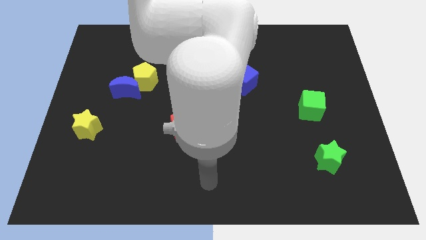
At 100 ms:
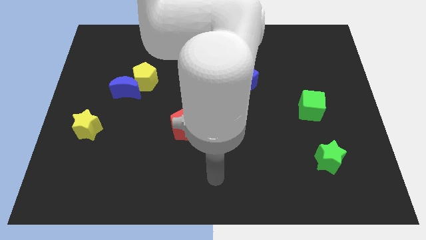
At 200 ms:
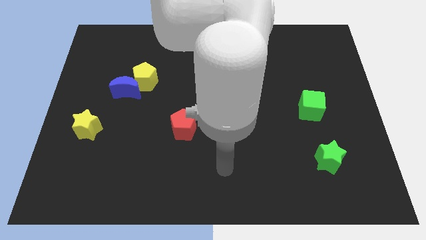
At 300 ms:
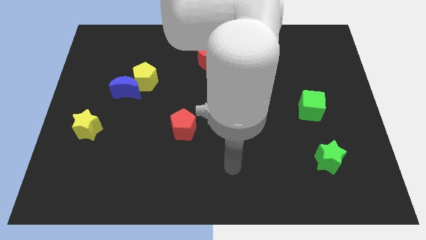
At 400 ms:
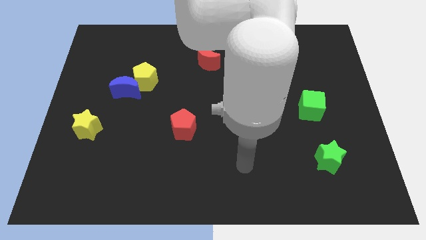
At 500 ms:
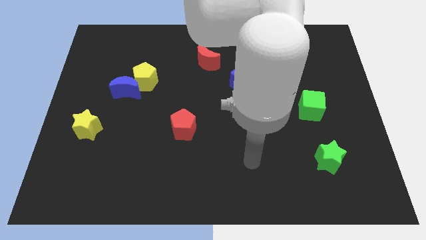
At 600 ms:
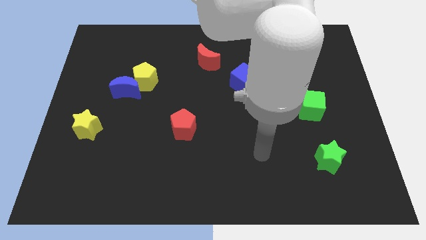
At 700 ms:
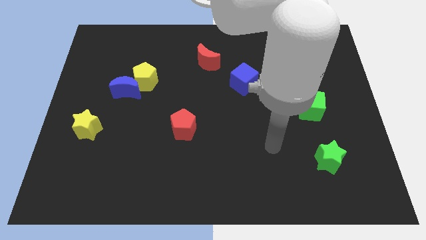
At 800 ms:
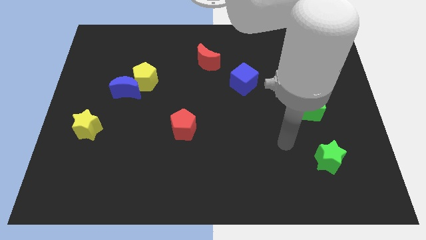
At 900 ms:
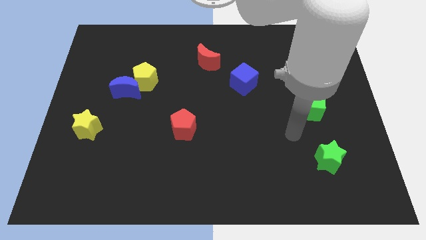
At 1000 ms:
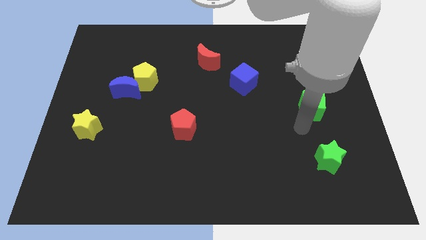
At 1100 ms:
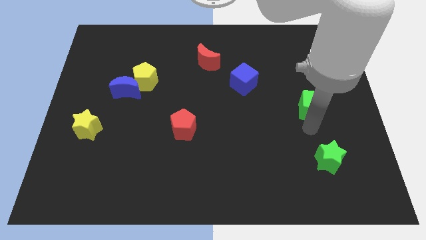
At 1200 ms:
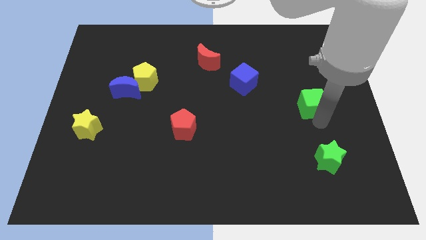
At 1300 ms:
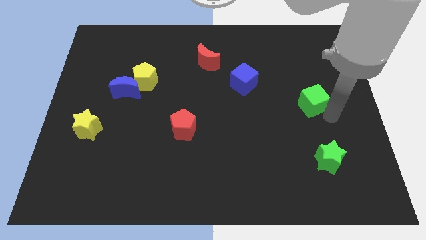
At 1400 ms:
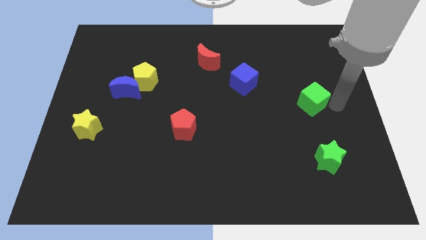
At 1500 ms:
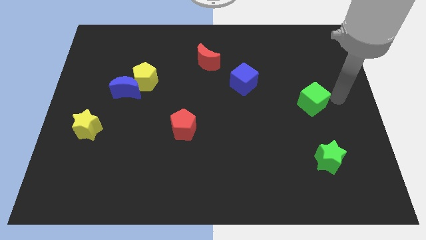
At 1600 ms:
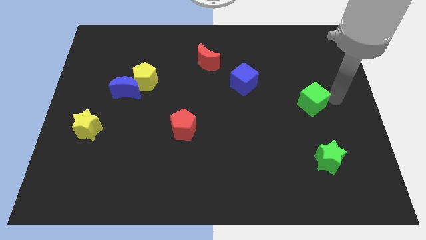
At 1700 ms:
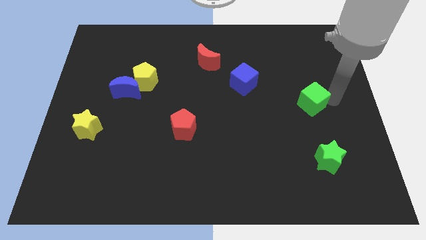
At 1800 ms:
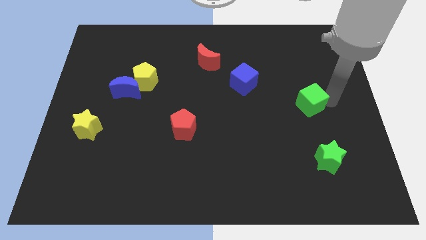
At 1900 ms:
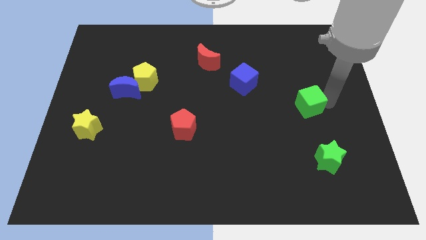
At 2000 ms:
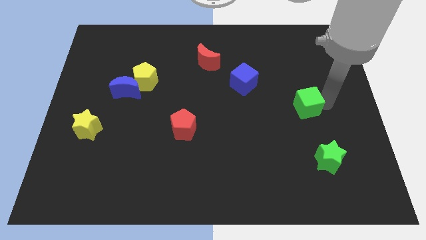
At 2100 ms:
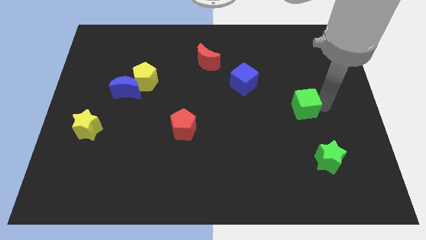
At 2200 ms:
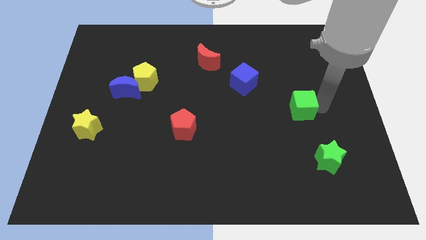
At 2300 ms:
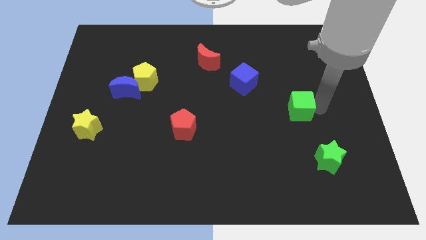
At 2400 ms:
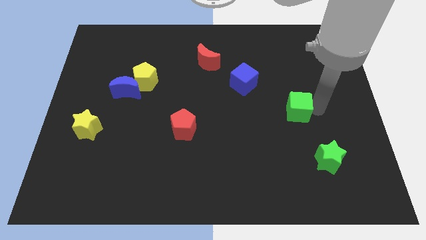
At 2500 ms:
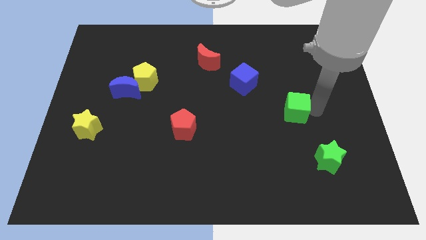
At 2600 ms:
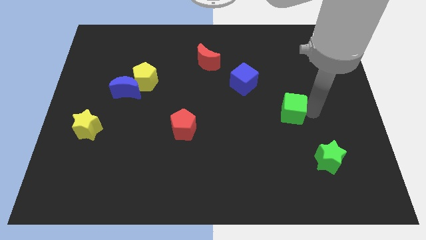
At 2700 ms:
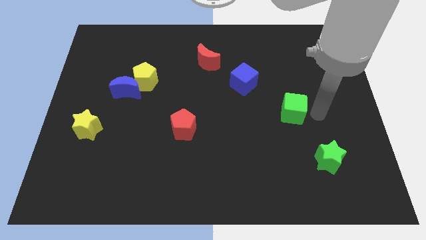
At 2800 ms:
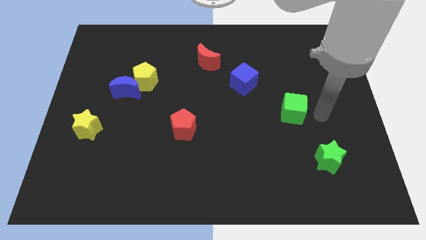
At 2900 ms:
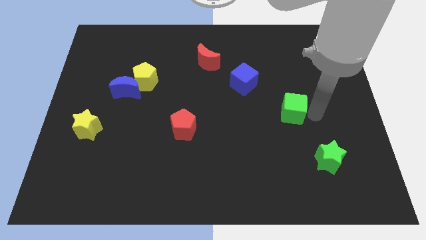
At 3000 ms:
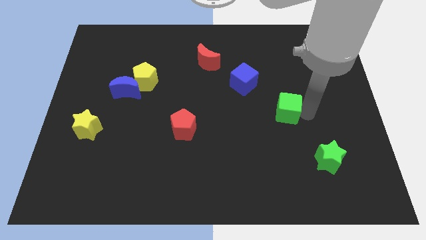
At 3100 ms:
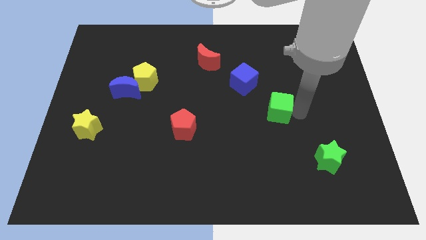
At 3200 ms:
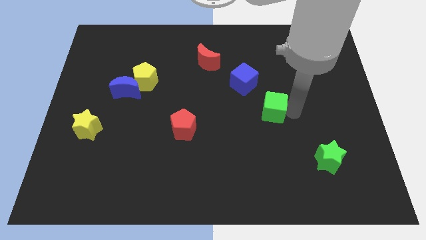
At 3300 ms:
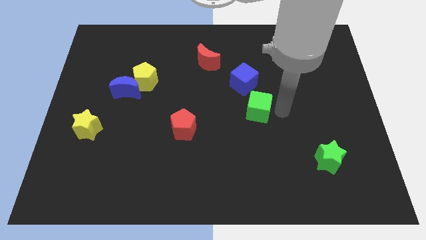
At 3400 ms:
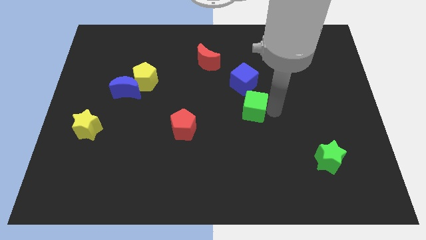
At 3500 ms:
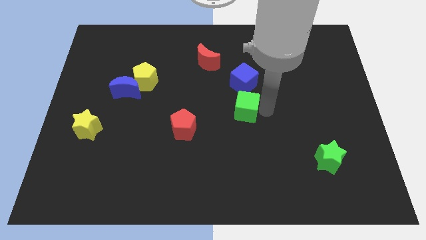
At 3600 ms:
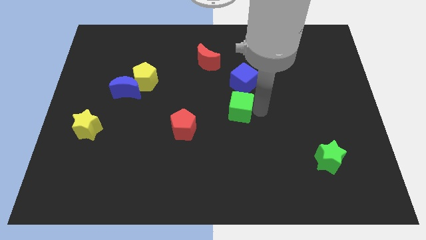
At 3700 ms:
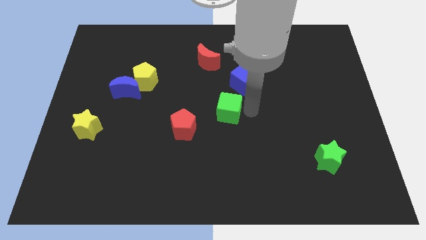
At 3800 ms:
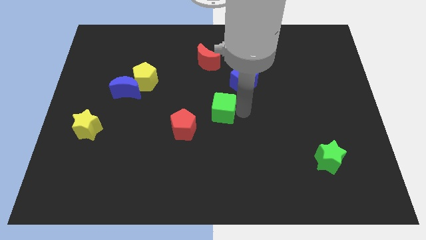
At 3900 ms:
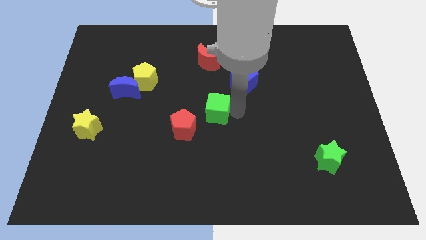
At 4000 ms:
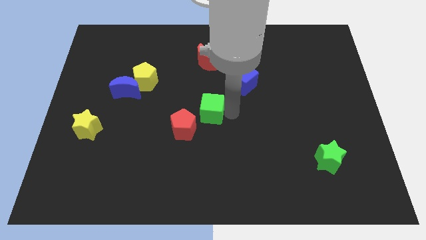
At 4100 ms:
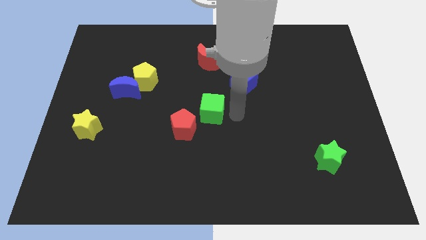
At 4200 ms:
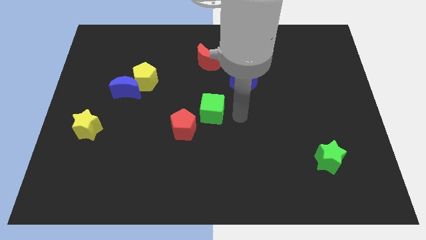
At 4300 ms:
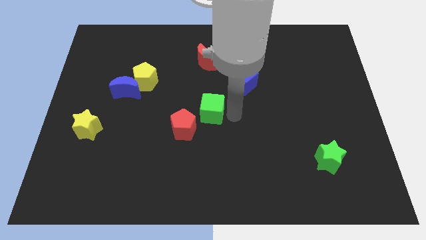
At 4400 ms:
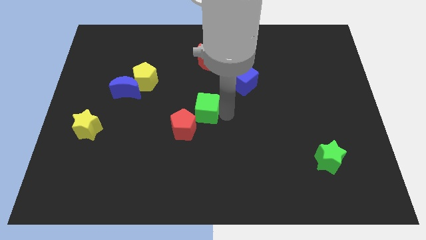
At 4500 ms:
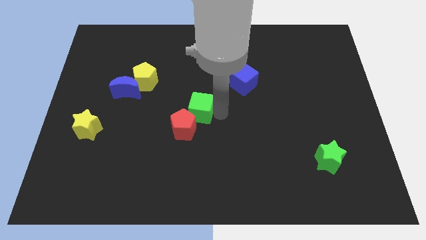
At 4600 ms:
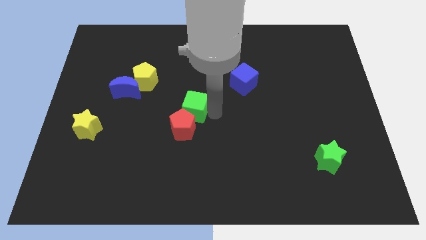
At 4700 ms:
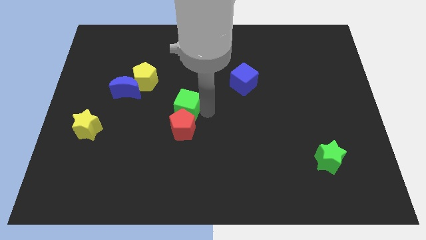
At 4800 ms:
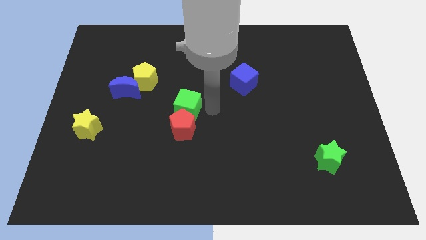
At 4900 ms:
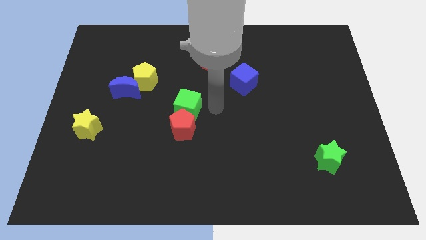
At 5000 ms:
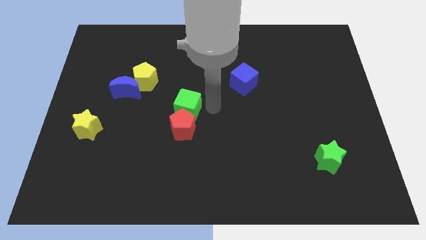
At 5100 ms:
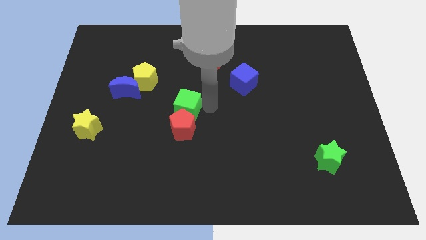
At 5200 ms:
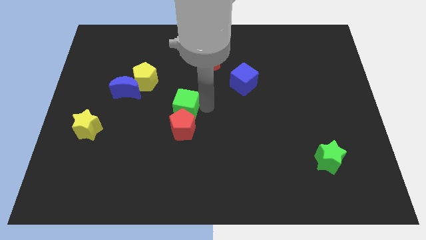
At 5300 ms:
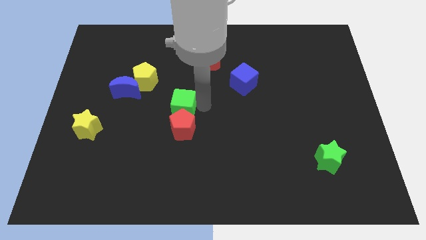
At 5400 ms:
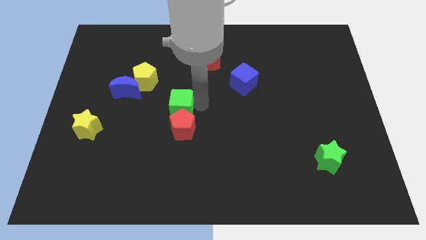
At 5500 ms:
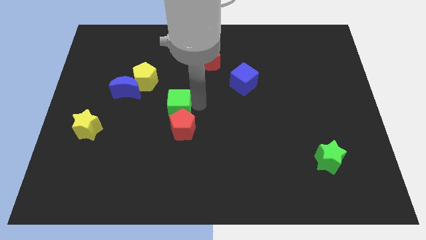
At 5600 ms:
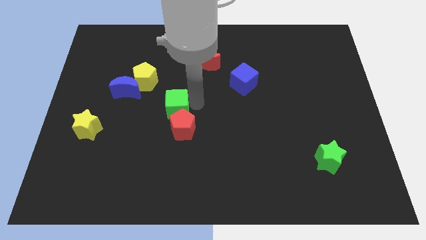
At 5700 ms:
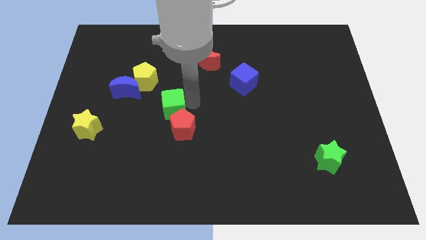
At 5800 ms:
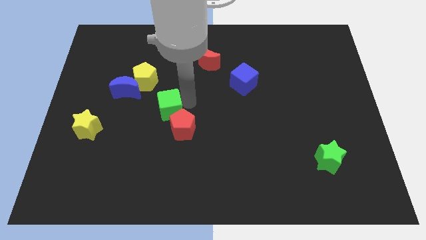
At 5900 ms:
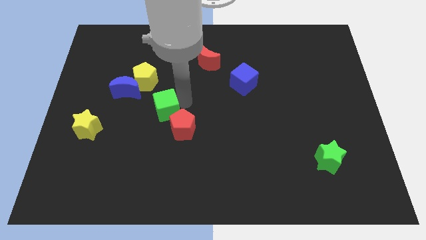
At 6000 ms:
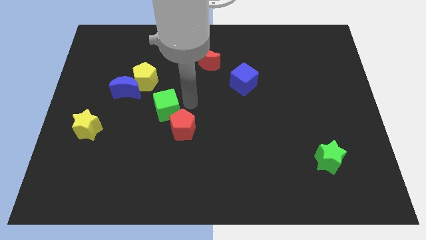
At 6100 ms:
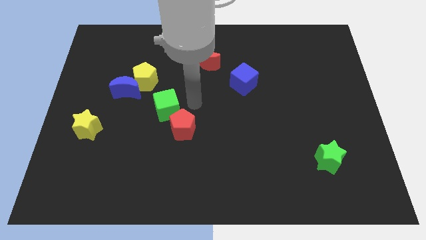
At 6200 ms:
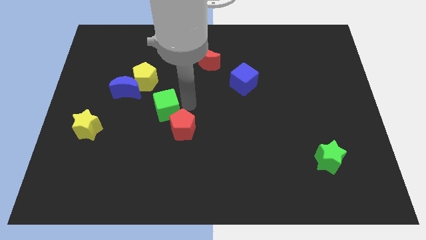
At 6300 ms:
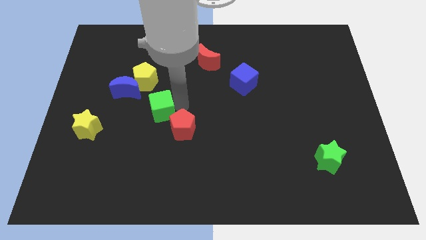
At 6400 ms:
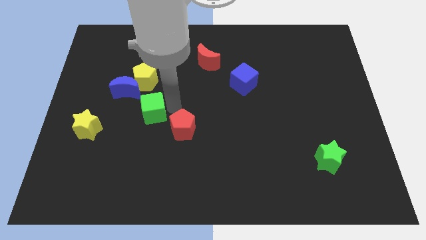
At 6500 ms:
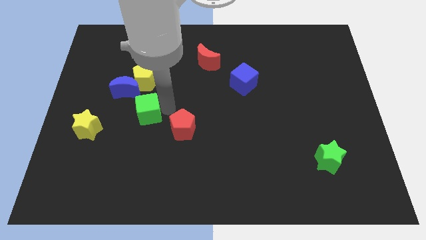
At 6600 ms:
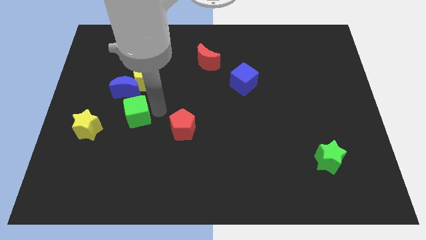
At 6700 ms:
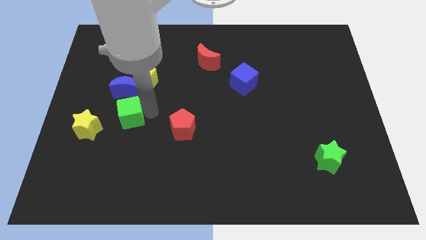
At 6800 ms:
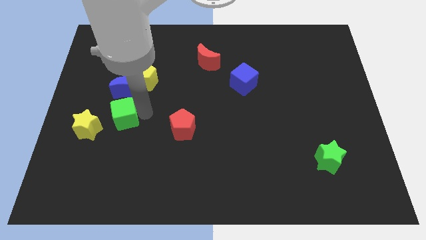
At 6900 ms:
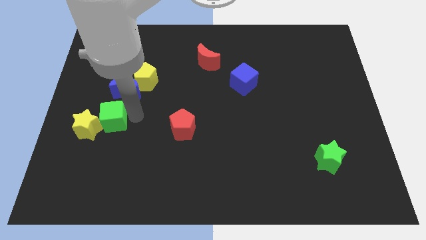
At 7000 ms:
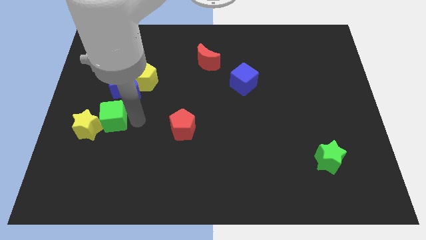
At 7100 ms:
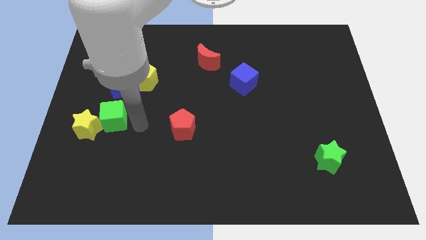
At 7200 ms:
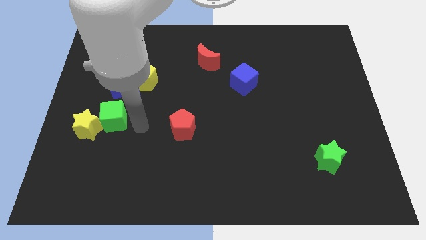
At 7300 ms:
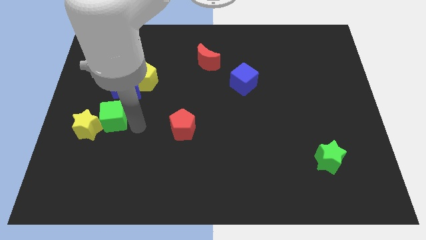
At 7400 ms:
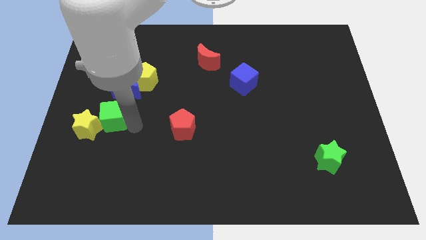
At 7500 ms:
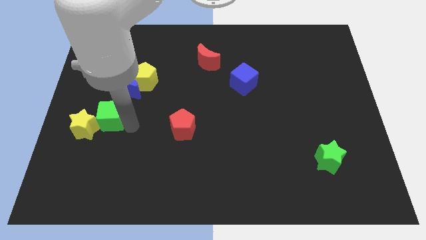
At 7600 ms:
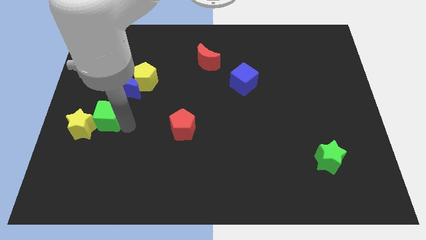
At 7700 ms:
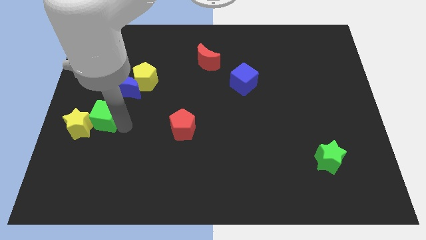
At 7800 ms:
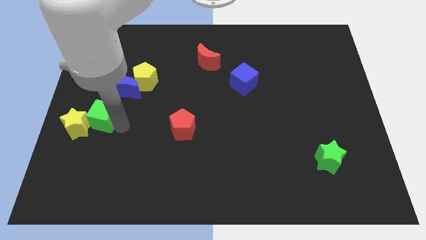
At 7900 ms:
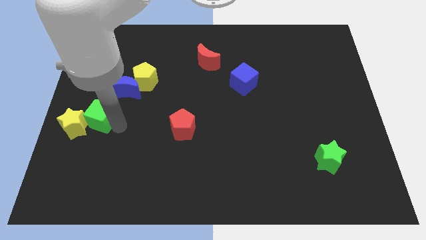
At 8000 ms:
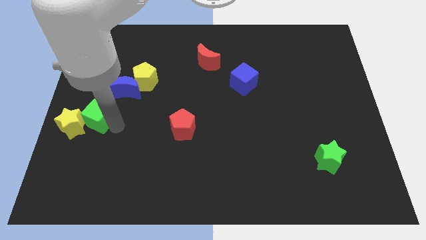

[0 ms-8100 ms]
put the green cube to the left side
